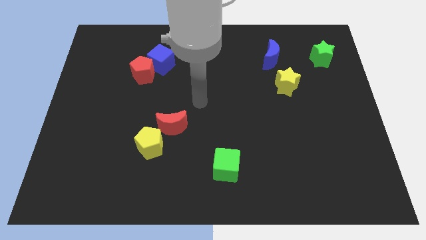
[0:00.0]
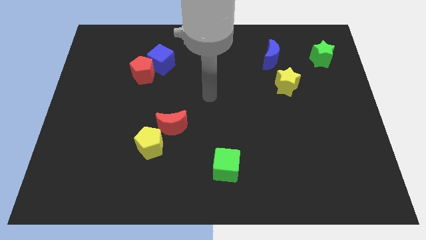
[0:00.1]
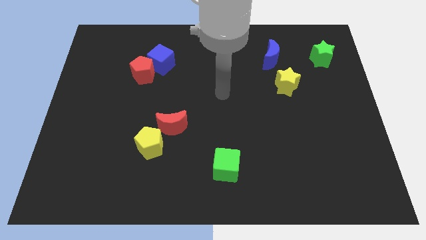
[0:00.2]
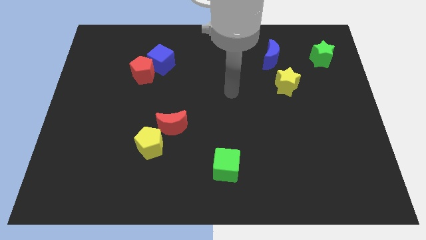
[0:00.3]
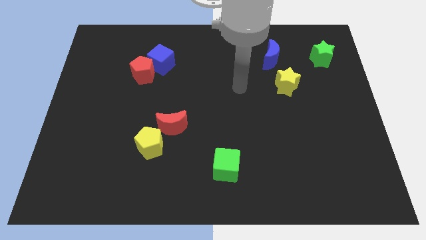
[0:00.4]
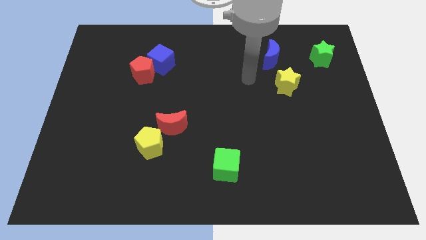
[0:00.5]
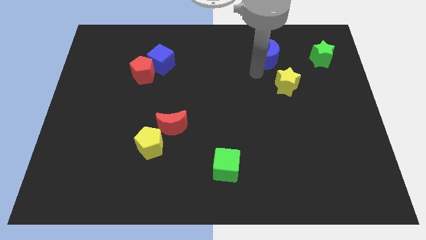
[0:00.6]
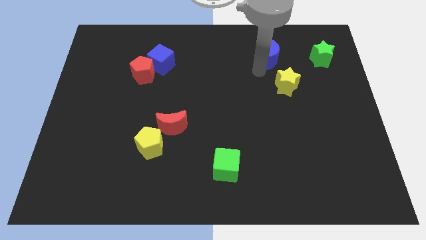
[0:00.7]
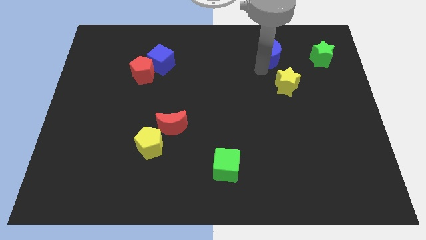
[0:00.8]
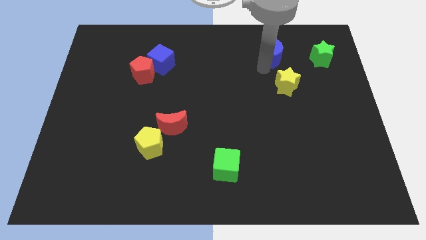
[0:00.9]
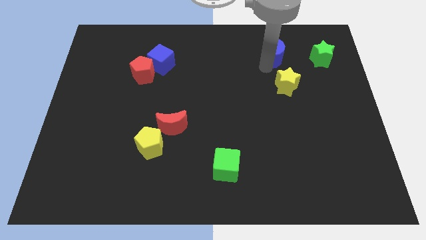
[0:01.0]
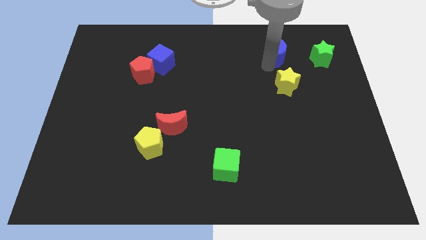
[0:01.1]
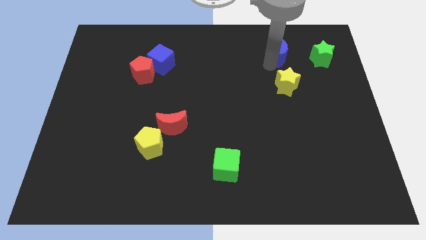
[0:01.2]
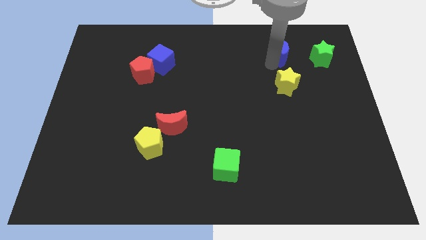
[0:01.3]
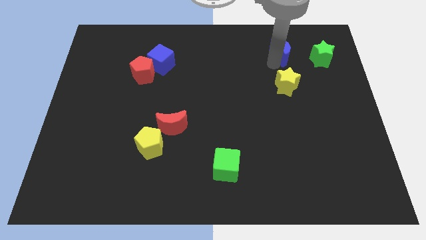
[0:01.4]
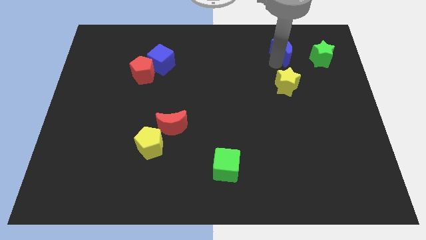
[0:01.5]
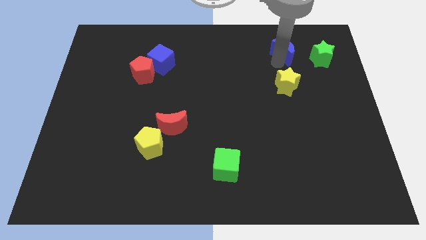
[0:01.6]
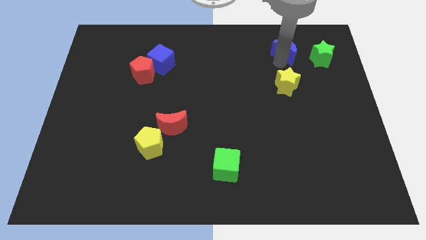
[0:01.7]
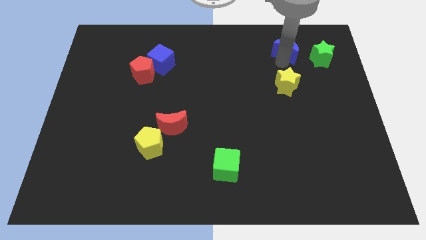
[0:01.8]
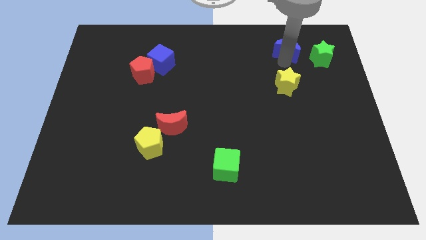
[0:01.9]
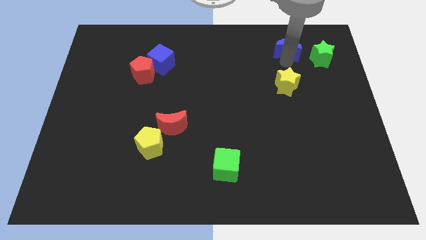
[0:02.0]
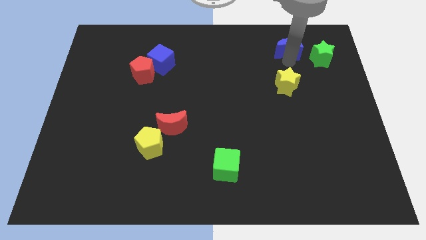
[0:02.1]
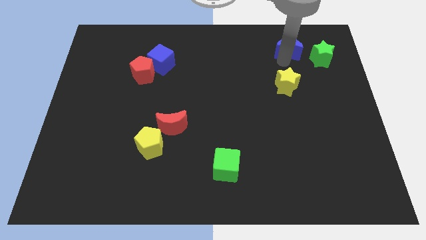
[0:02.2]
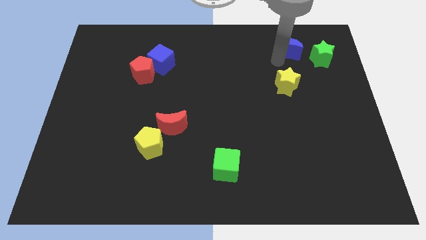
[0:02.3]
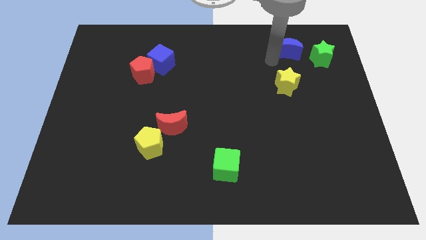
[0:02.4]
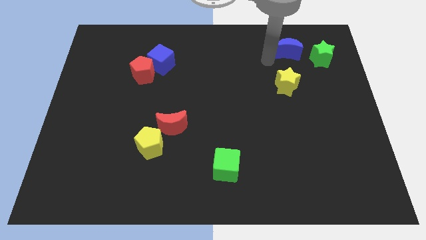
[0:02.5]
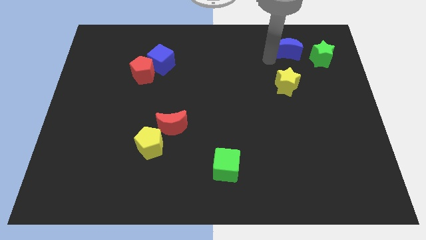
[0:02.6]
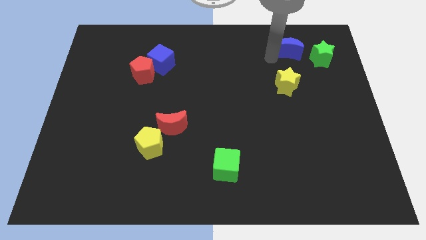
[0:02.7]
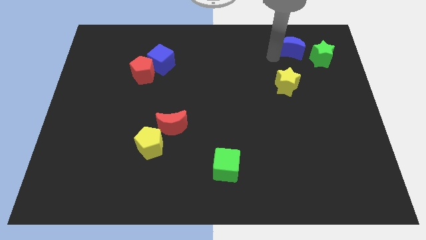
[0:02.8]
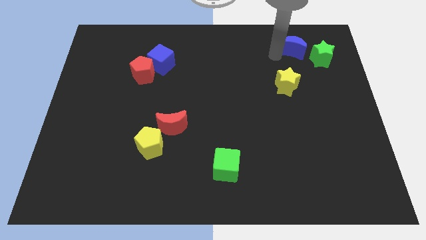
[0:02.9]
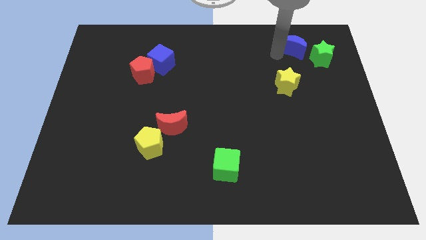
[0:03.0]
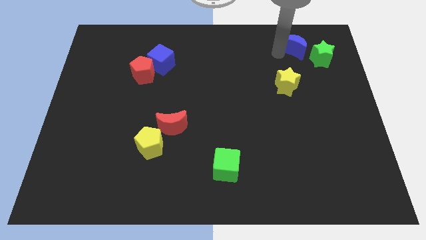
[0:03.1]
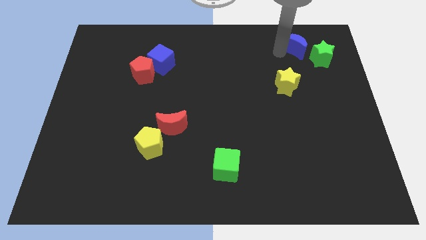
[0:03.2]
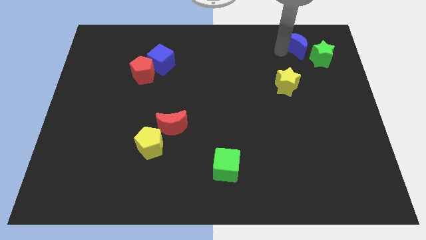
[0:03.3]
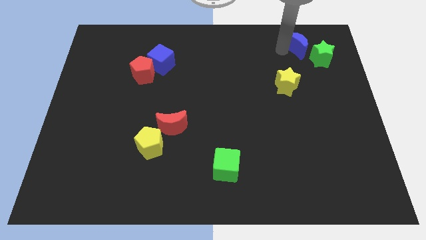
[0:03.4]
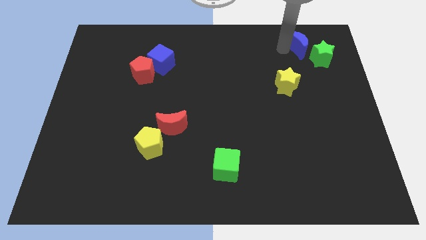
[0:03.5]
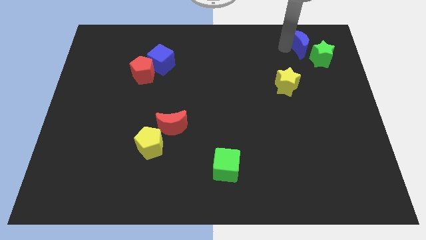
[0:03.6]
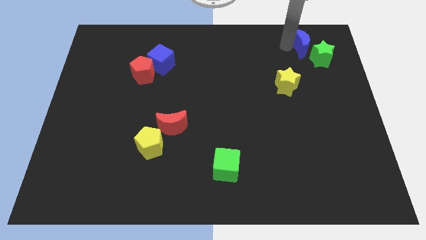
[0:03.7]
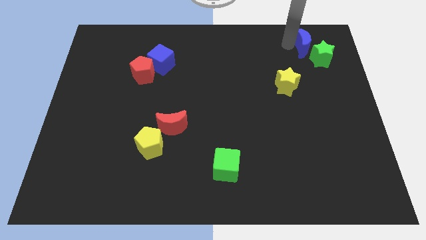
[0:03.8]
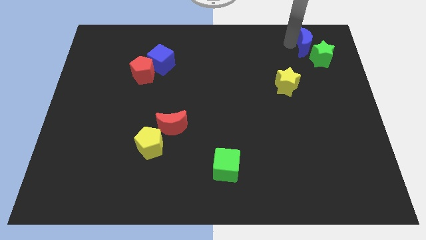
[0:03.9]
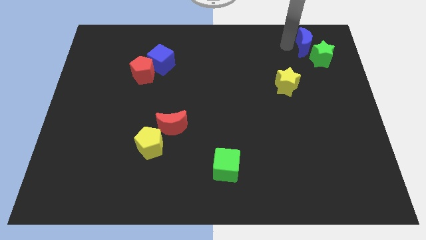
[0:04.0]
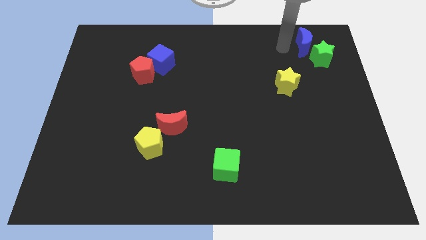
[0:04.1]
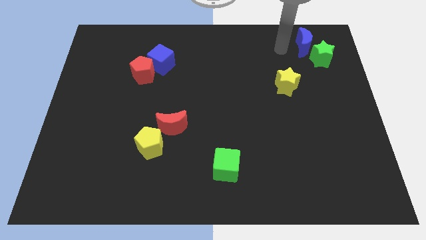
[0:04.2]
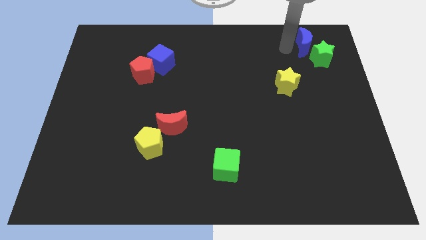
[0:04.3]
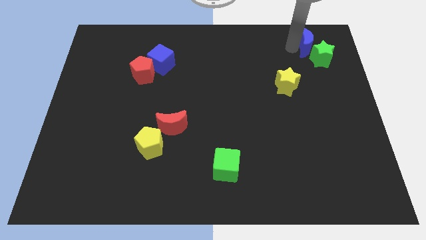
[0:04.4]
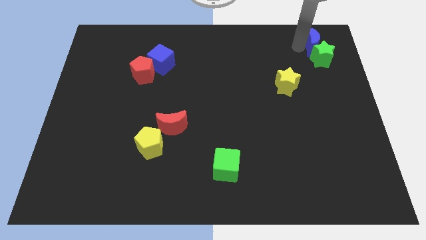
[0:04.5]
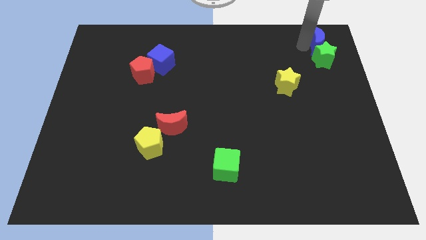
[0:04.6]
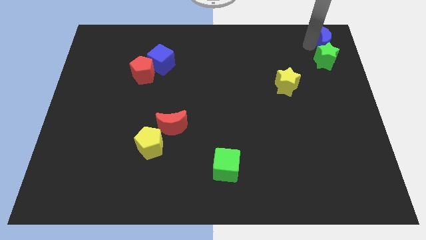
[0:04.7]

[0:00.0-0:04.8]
move the blue moon to the top right

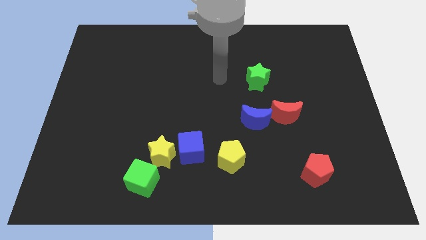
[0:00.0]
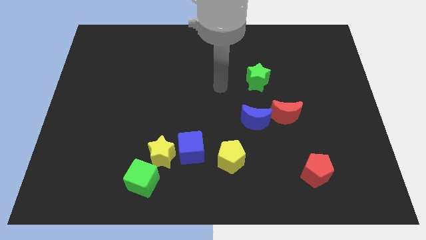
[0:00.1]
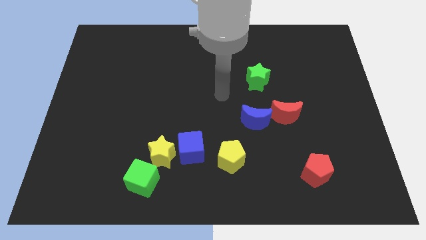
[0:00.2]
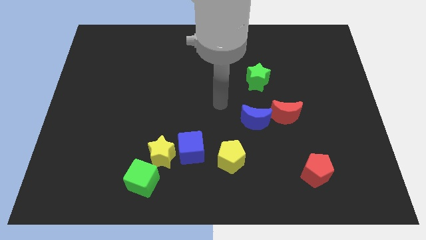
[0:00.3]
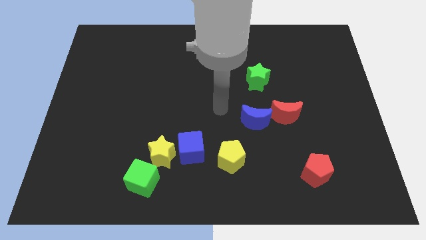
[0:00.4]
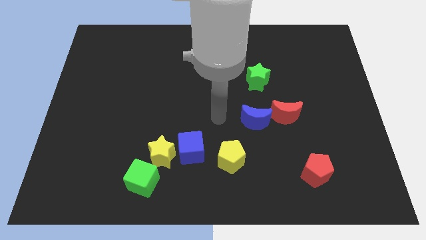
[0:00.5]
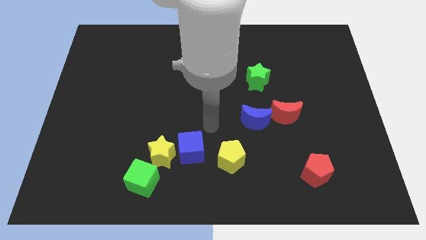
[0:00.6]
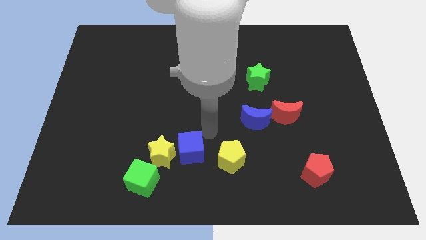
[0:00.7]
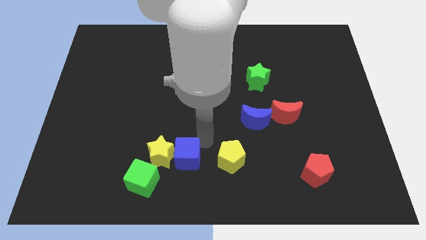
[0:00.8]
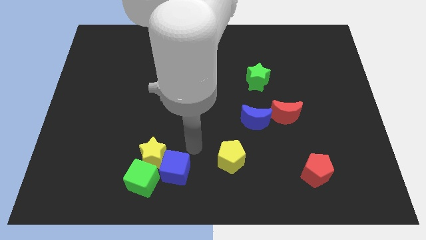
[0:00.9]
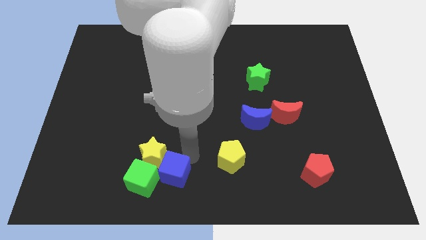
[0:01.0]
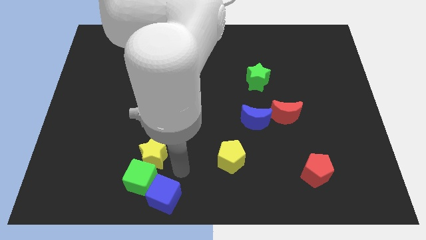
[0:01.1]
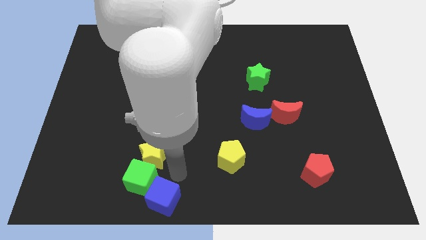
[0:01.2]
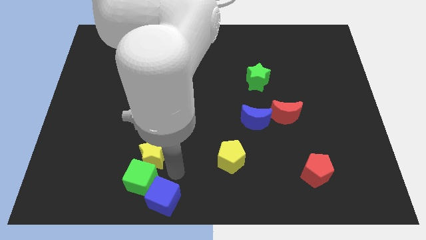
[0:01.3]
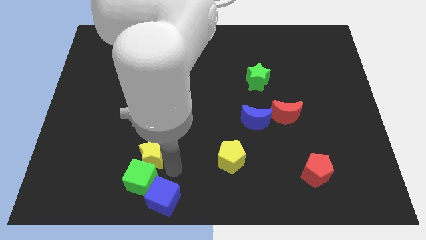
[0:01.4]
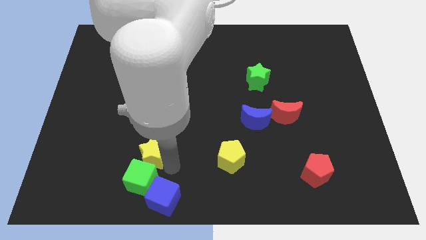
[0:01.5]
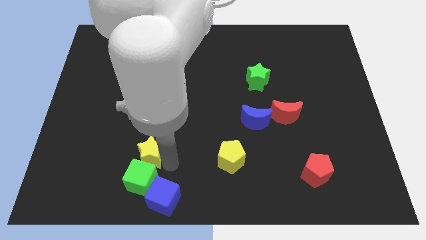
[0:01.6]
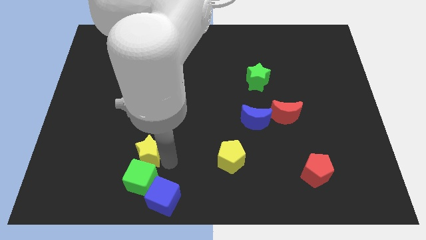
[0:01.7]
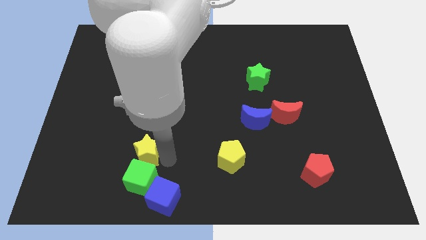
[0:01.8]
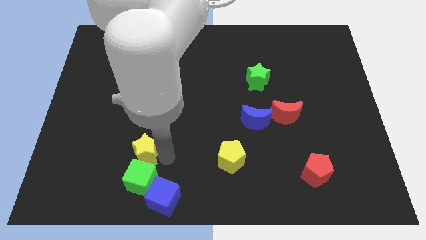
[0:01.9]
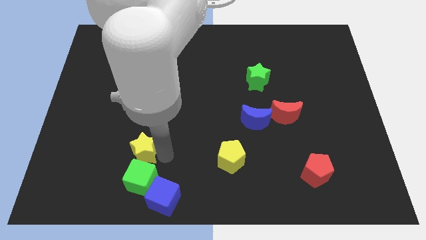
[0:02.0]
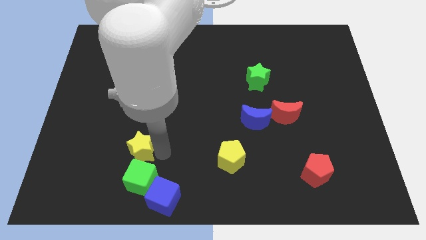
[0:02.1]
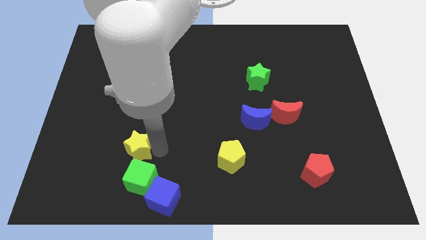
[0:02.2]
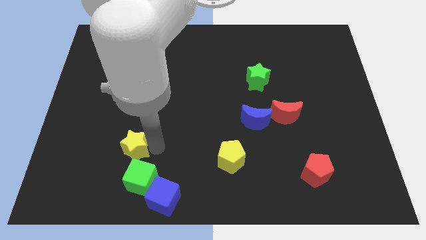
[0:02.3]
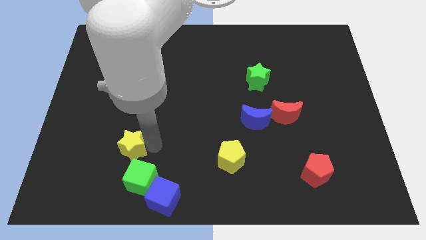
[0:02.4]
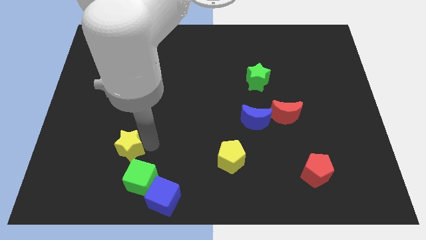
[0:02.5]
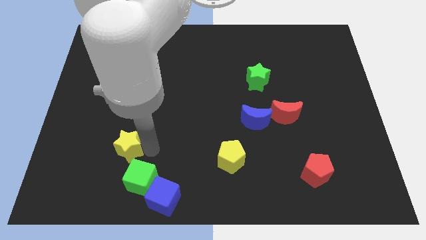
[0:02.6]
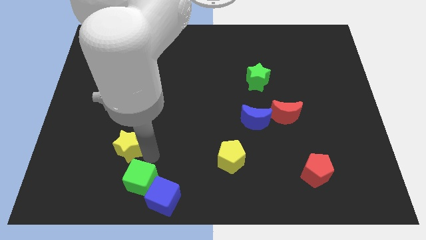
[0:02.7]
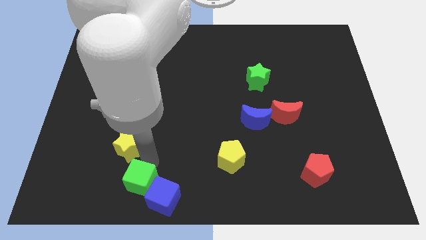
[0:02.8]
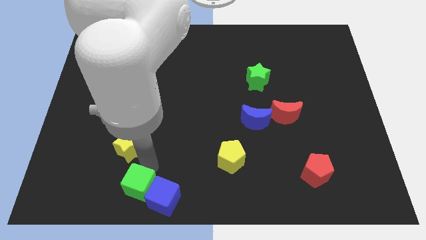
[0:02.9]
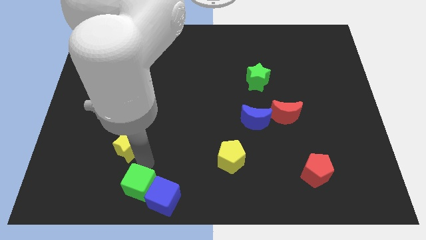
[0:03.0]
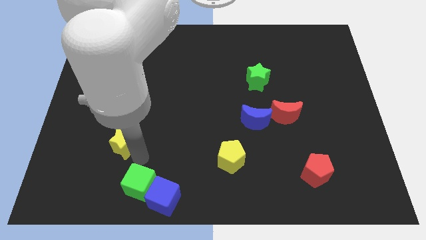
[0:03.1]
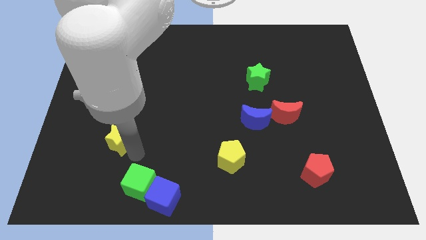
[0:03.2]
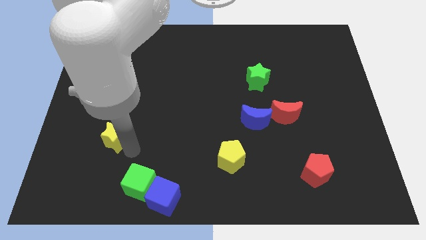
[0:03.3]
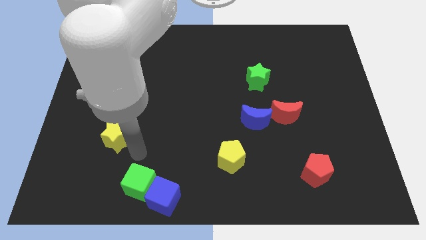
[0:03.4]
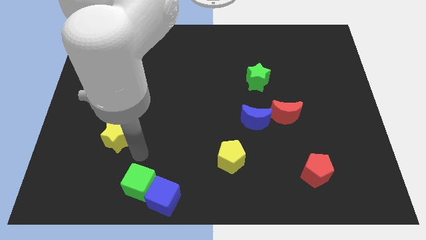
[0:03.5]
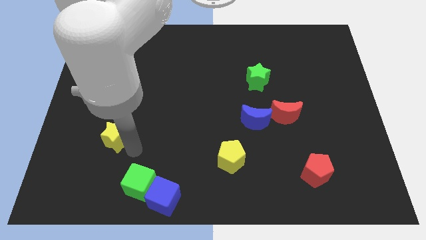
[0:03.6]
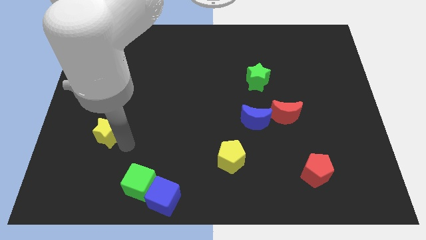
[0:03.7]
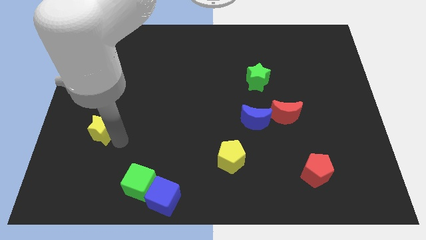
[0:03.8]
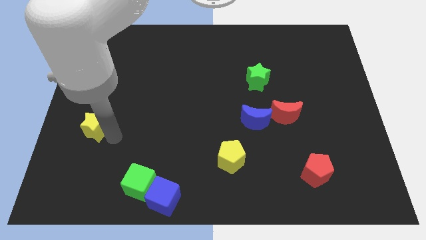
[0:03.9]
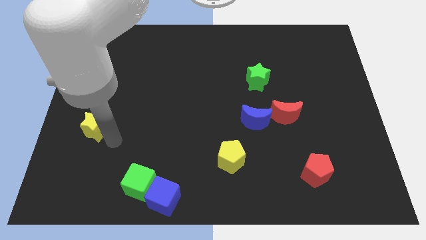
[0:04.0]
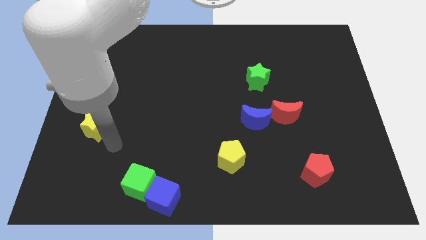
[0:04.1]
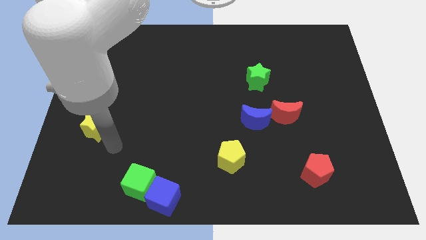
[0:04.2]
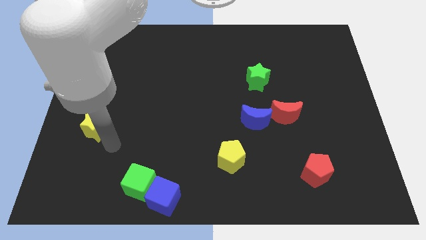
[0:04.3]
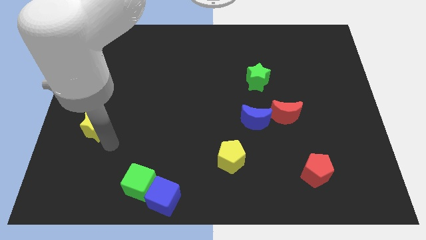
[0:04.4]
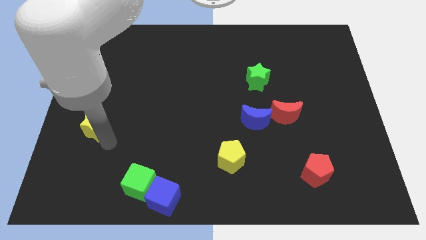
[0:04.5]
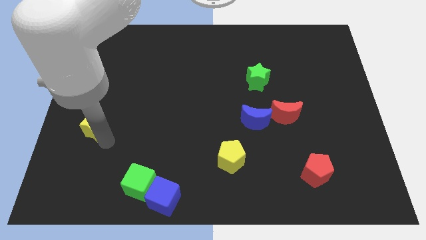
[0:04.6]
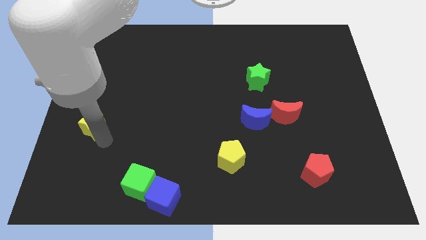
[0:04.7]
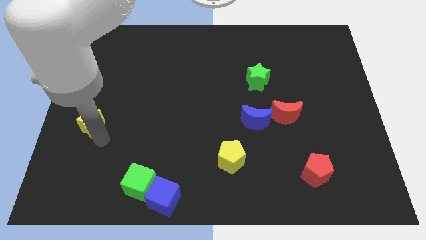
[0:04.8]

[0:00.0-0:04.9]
push the yellow star to the left side of the board
